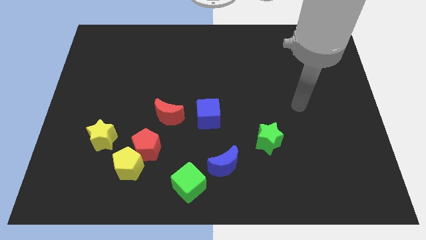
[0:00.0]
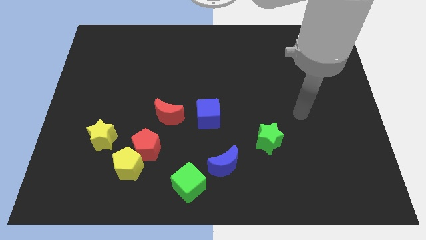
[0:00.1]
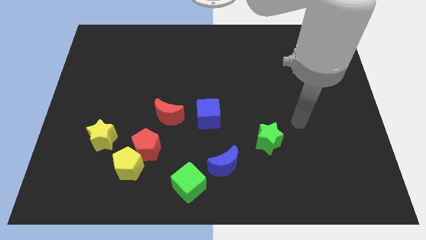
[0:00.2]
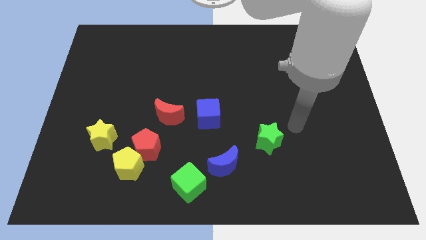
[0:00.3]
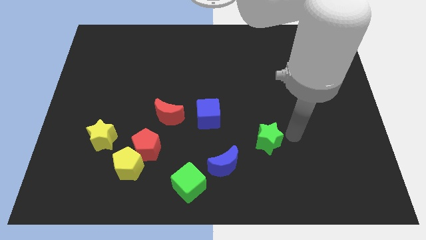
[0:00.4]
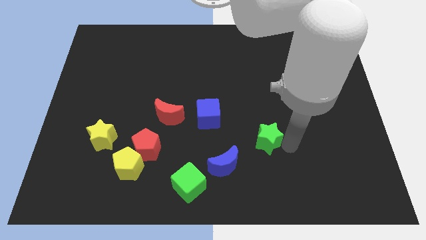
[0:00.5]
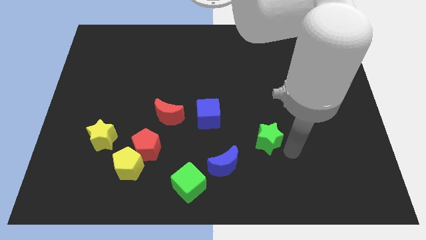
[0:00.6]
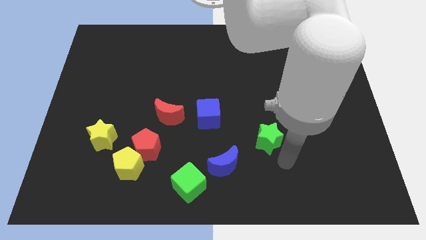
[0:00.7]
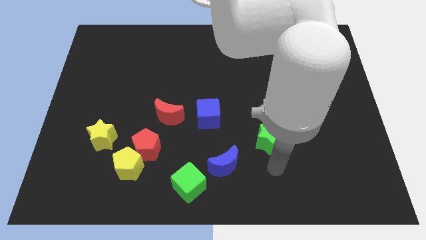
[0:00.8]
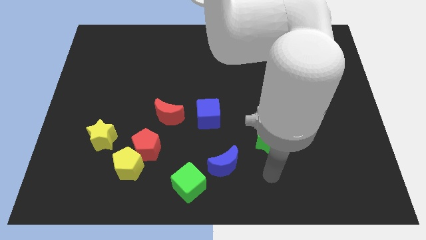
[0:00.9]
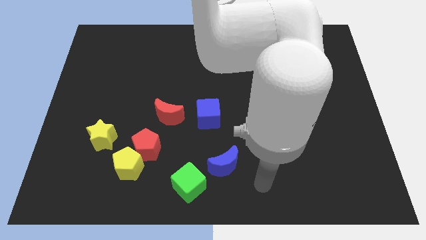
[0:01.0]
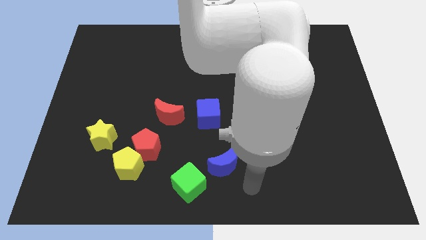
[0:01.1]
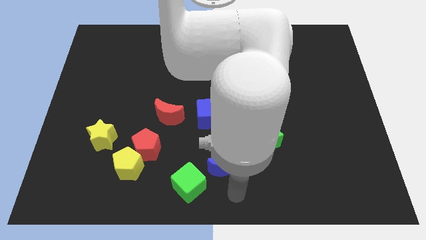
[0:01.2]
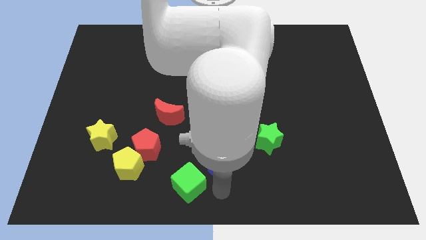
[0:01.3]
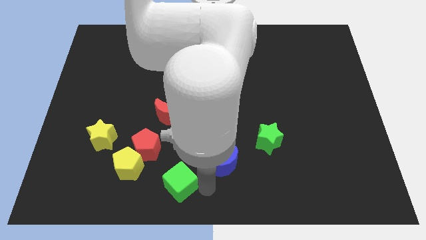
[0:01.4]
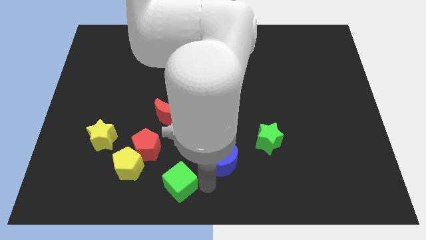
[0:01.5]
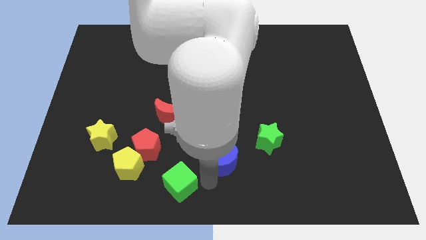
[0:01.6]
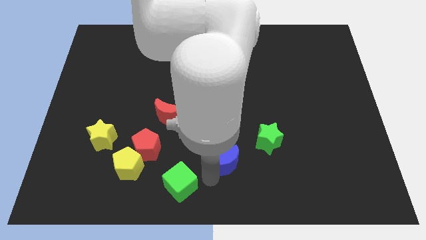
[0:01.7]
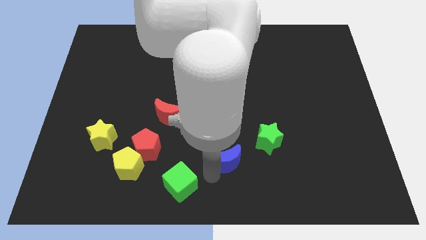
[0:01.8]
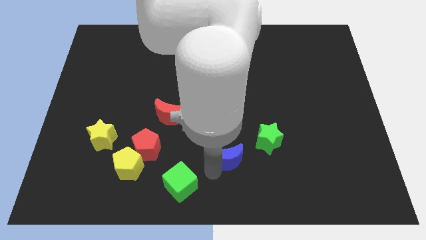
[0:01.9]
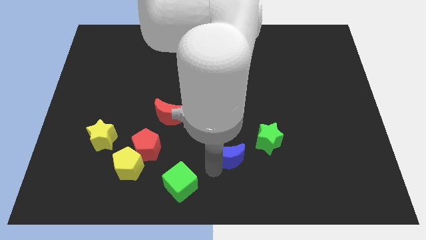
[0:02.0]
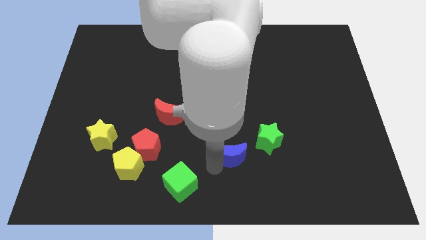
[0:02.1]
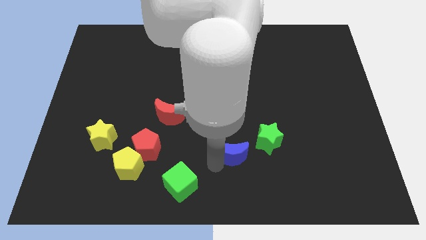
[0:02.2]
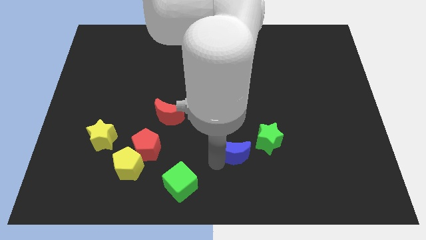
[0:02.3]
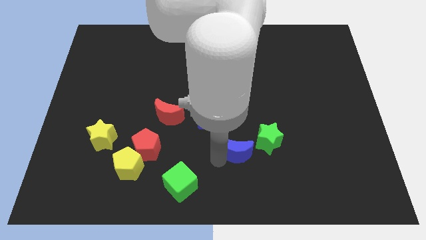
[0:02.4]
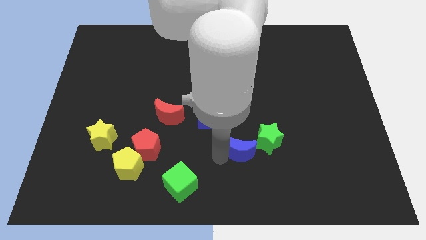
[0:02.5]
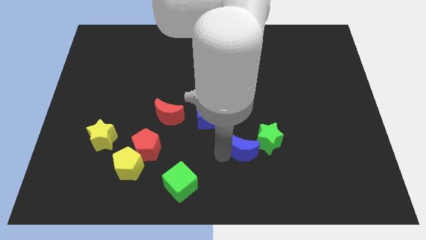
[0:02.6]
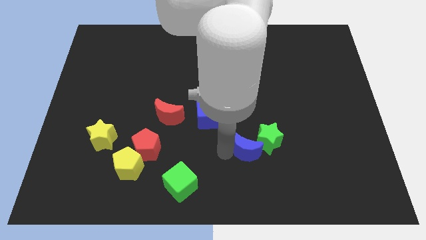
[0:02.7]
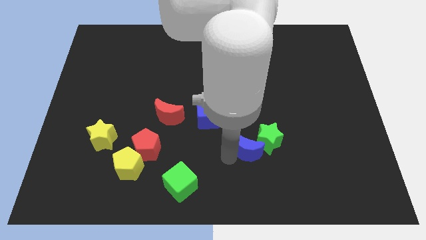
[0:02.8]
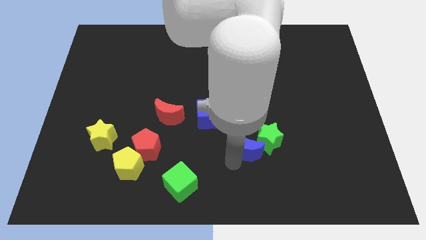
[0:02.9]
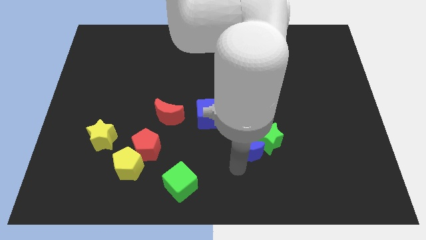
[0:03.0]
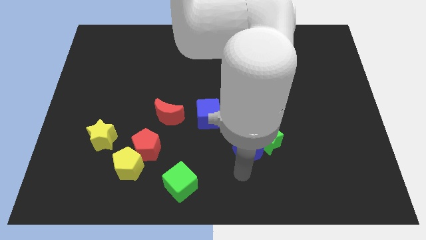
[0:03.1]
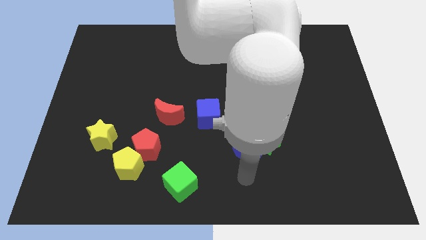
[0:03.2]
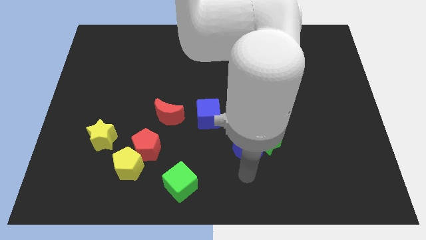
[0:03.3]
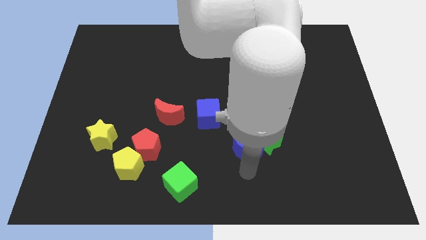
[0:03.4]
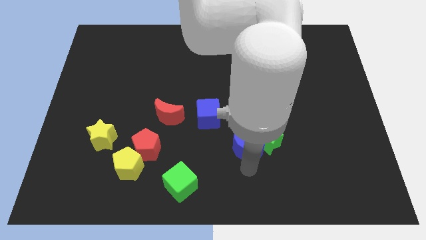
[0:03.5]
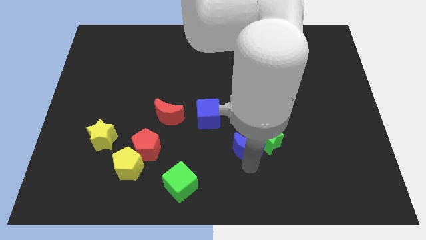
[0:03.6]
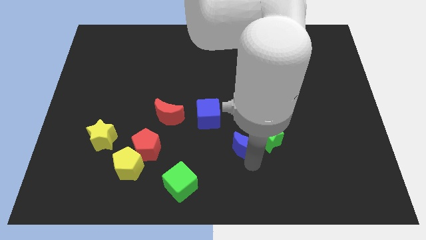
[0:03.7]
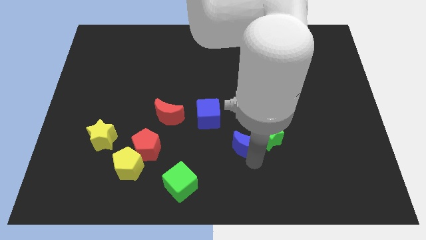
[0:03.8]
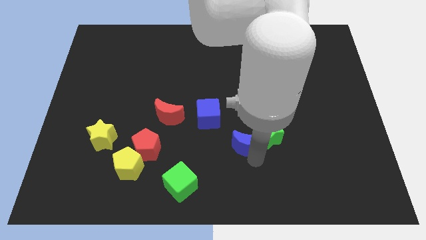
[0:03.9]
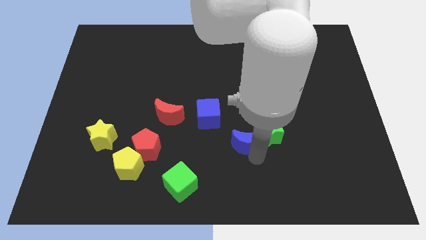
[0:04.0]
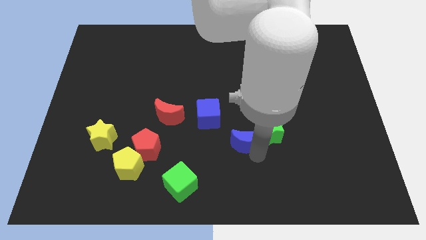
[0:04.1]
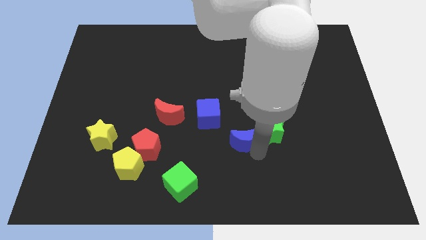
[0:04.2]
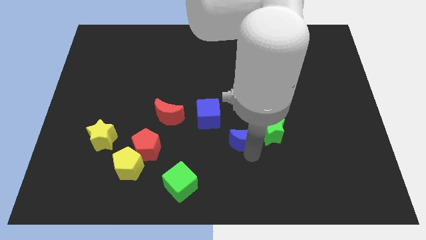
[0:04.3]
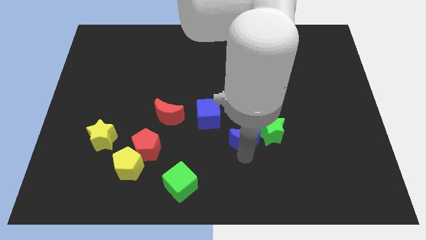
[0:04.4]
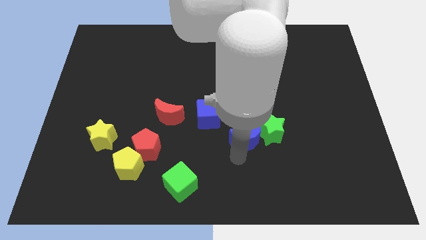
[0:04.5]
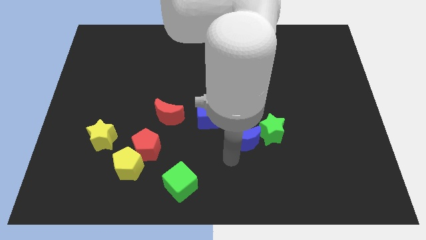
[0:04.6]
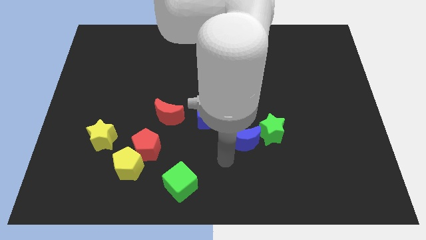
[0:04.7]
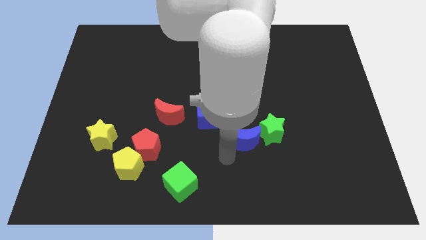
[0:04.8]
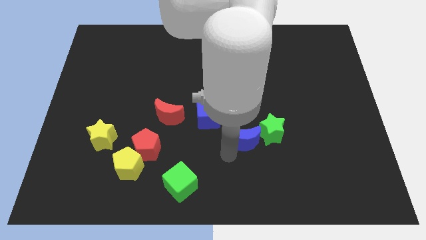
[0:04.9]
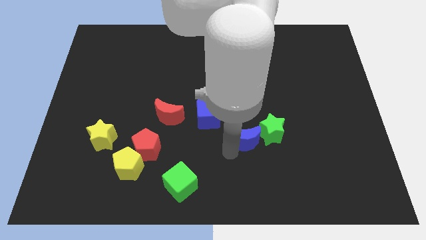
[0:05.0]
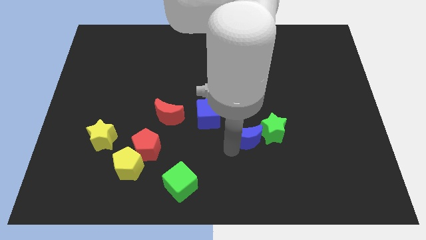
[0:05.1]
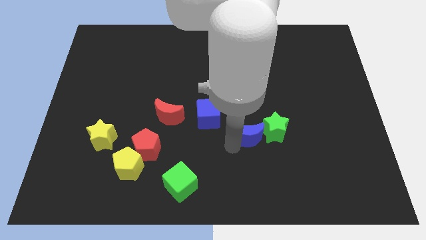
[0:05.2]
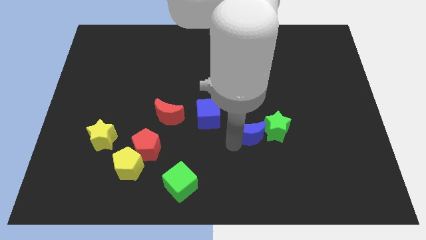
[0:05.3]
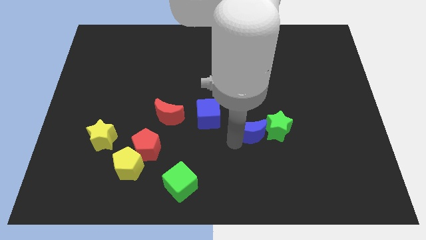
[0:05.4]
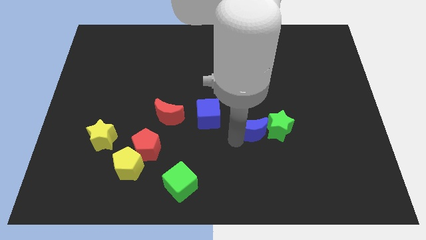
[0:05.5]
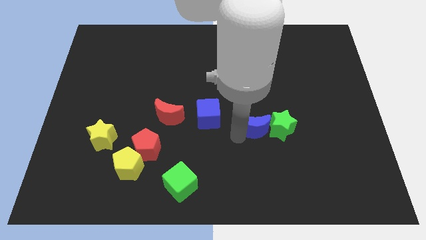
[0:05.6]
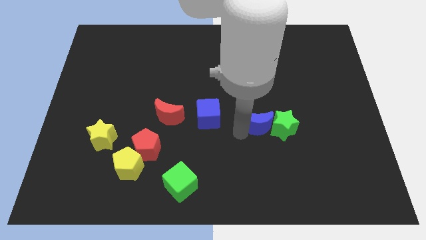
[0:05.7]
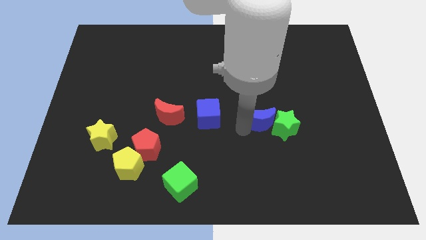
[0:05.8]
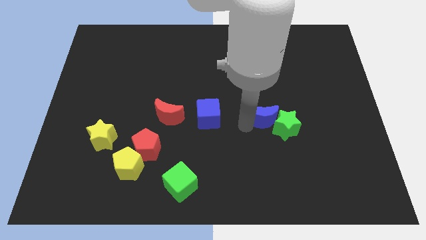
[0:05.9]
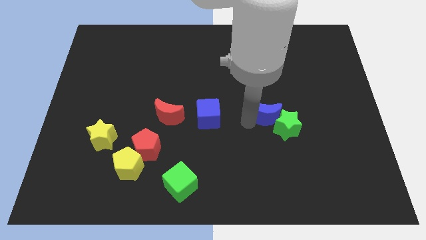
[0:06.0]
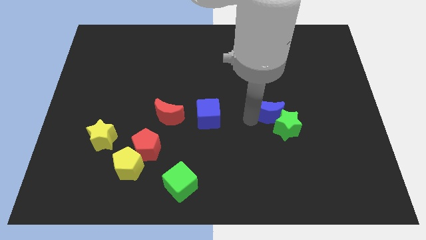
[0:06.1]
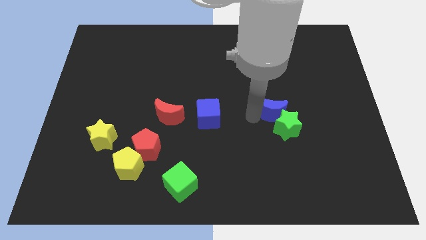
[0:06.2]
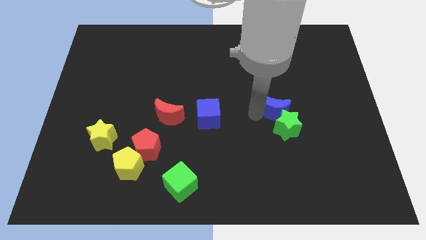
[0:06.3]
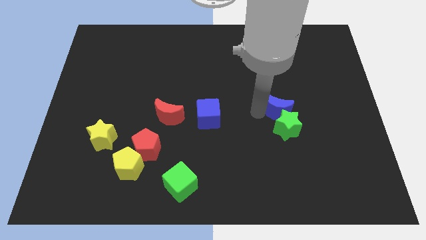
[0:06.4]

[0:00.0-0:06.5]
slide the blue moon diagonally up and to the right of the green star
